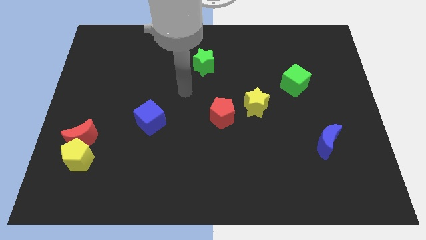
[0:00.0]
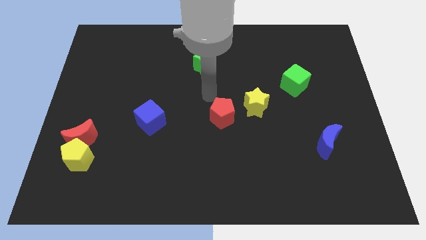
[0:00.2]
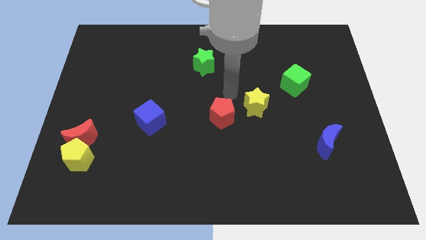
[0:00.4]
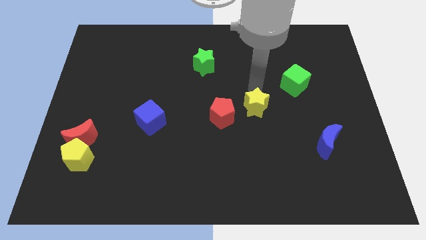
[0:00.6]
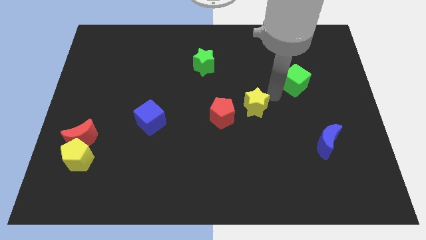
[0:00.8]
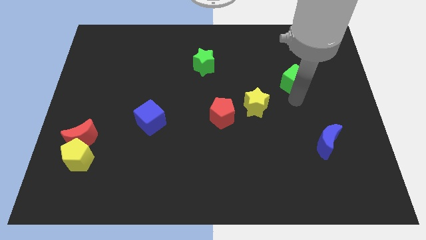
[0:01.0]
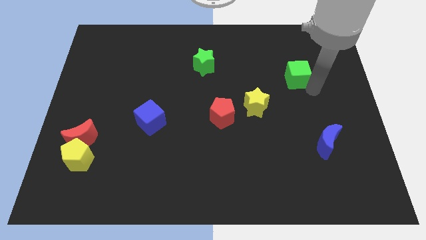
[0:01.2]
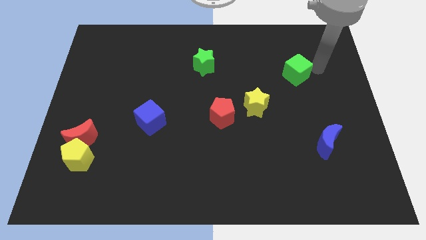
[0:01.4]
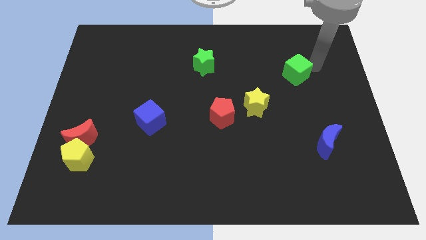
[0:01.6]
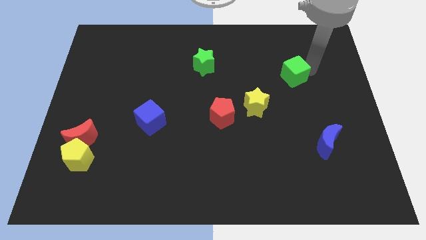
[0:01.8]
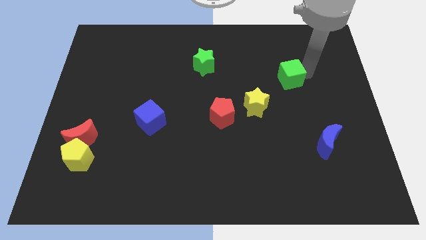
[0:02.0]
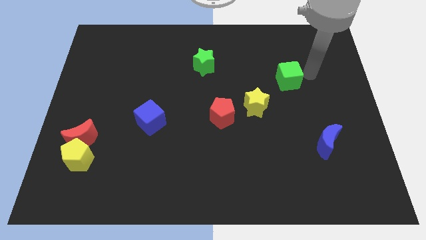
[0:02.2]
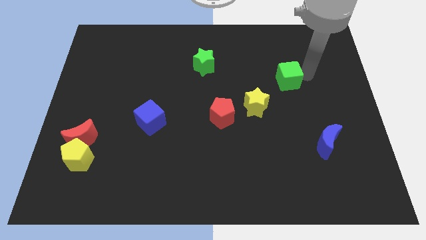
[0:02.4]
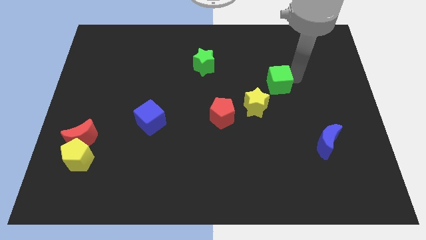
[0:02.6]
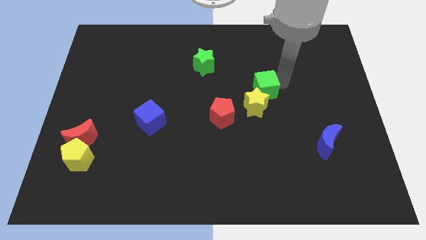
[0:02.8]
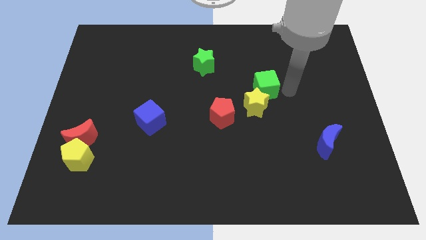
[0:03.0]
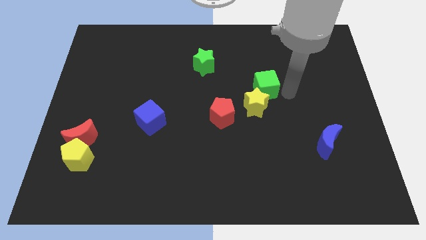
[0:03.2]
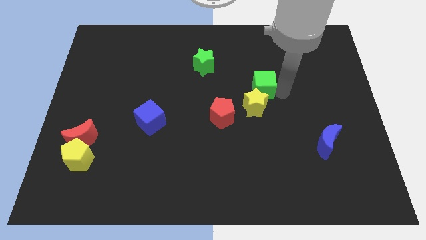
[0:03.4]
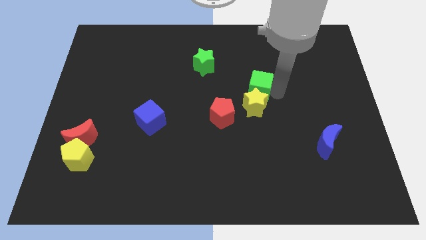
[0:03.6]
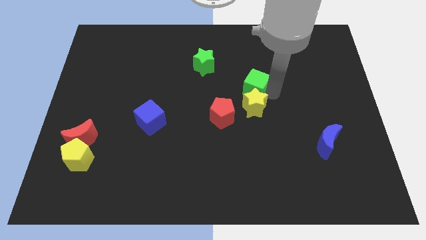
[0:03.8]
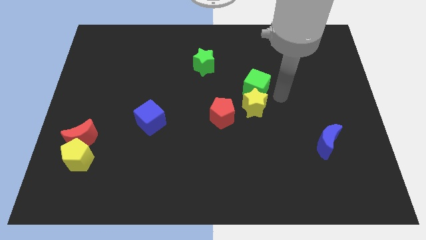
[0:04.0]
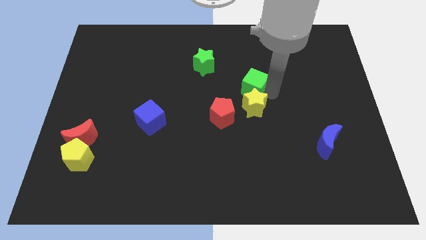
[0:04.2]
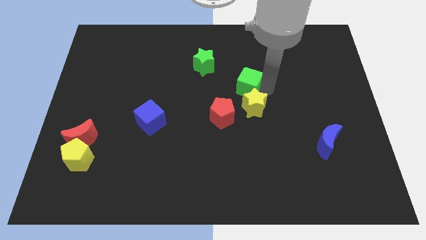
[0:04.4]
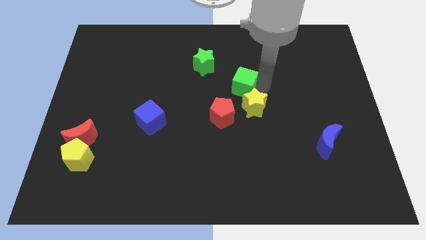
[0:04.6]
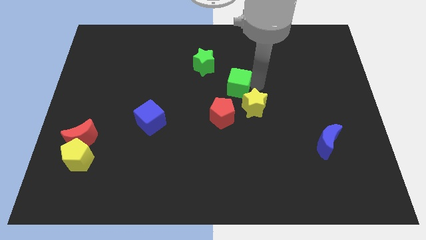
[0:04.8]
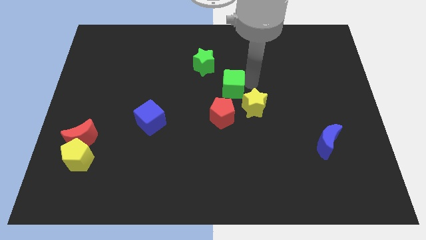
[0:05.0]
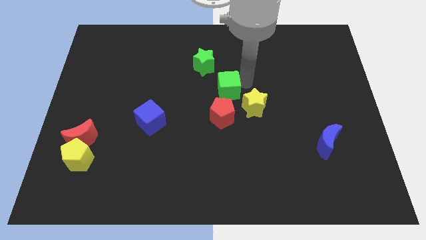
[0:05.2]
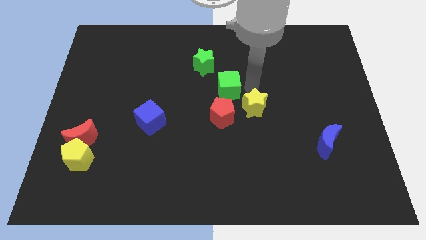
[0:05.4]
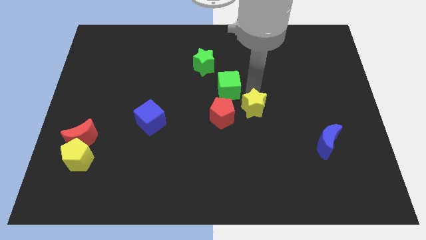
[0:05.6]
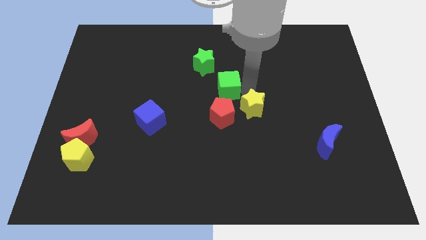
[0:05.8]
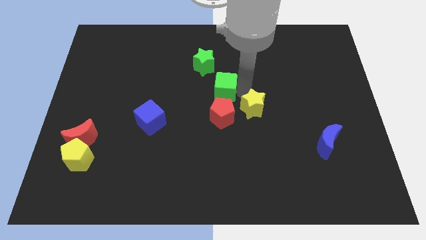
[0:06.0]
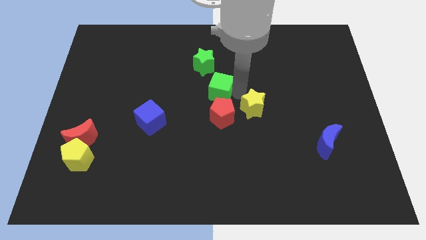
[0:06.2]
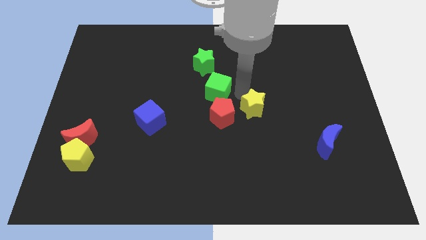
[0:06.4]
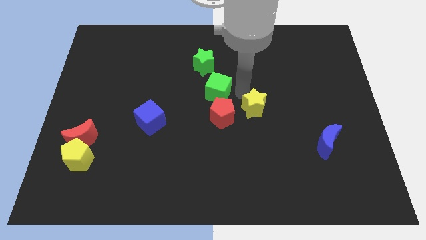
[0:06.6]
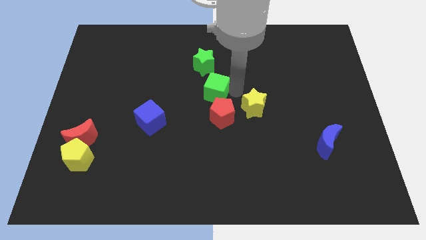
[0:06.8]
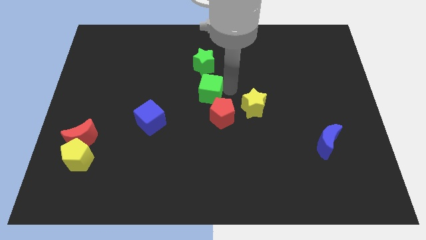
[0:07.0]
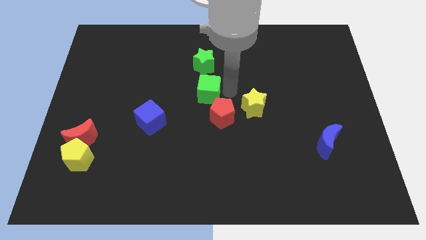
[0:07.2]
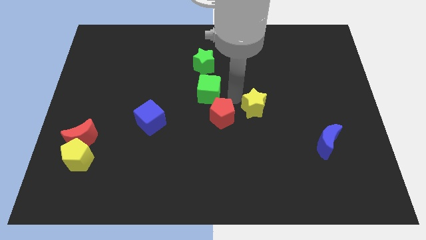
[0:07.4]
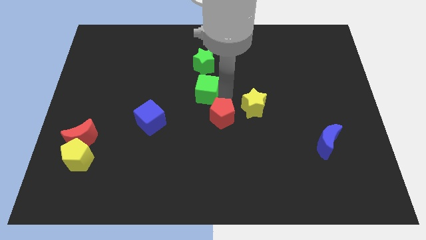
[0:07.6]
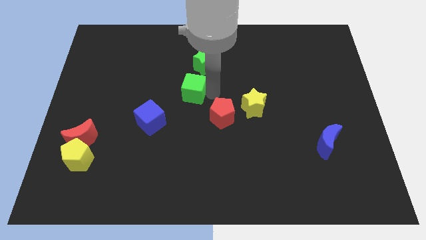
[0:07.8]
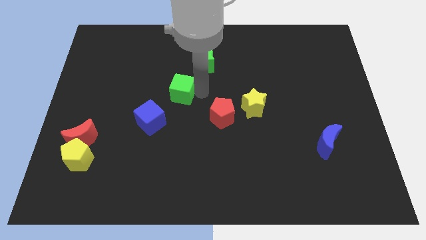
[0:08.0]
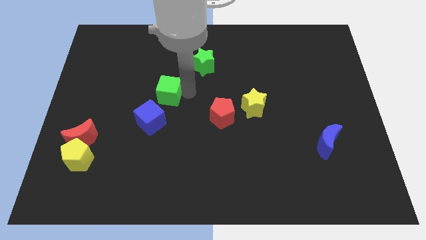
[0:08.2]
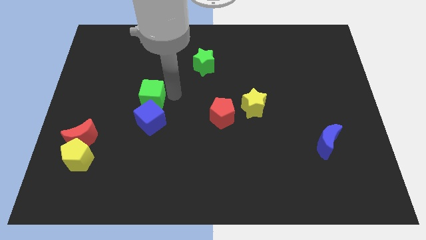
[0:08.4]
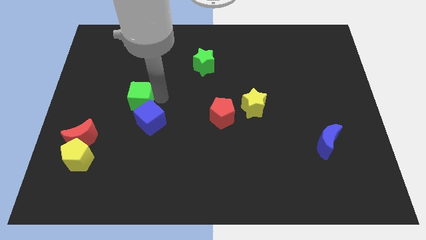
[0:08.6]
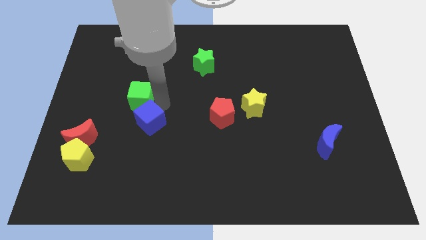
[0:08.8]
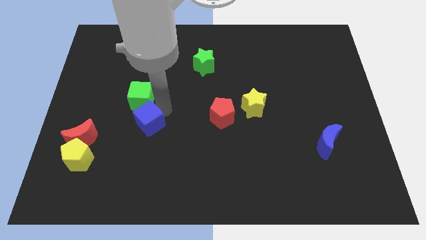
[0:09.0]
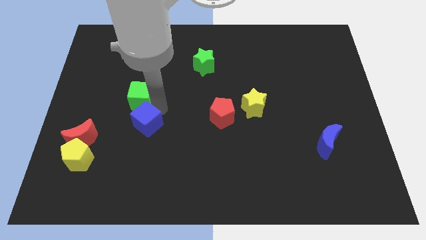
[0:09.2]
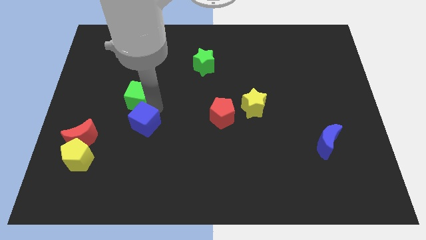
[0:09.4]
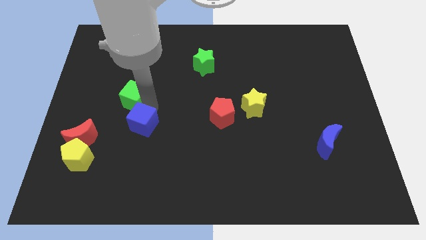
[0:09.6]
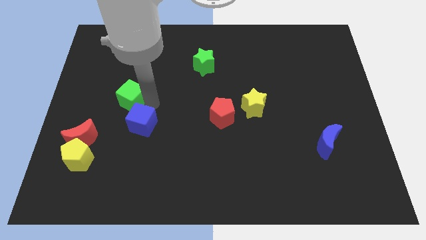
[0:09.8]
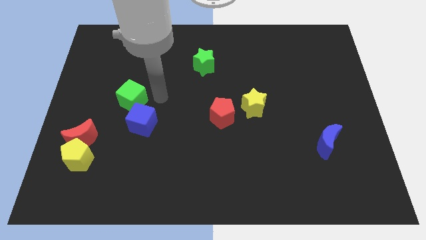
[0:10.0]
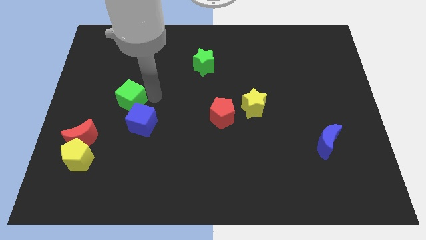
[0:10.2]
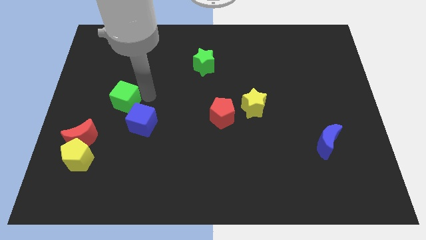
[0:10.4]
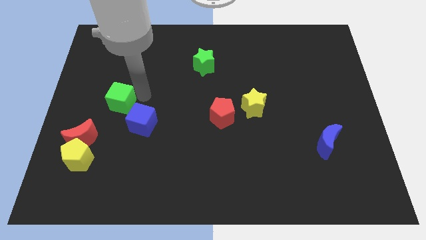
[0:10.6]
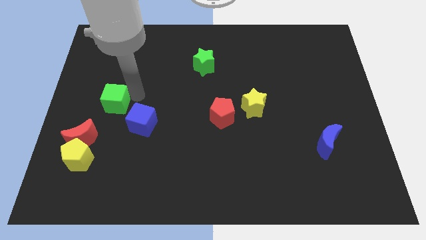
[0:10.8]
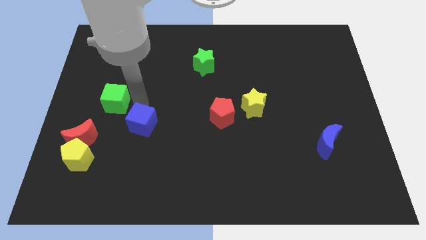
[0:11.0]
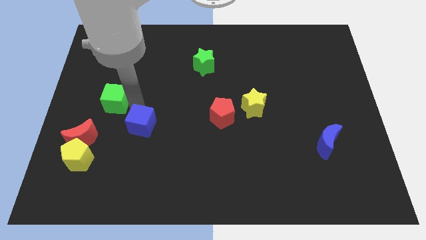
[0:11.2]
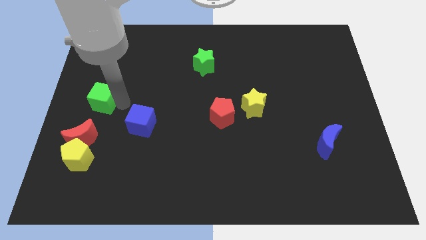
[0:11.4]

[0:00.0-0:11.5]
slide the green cube to the center left

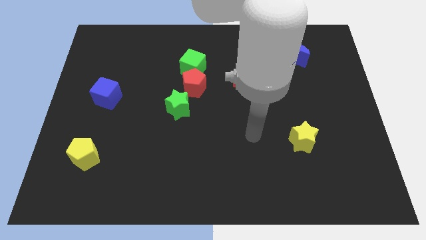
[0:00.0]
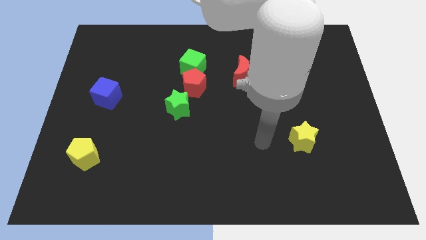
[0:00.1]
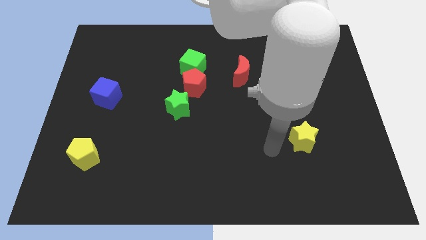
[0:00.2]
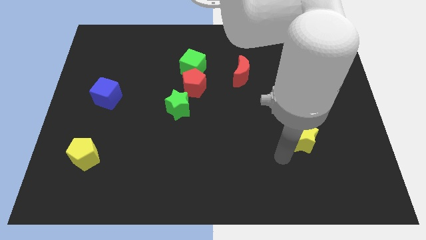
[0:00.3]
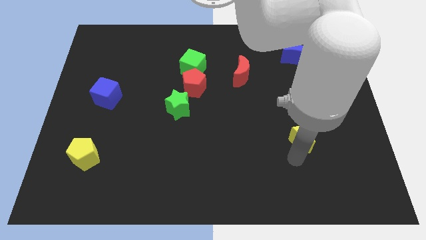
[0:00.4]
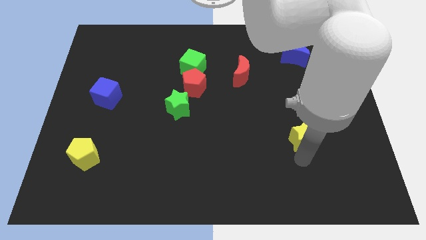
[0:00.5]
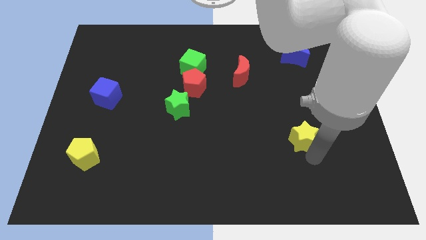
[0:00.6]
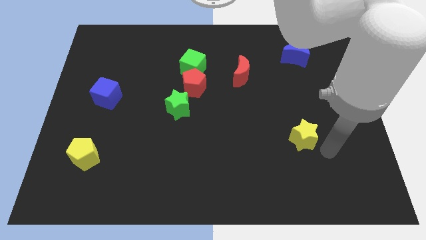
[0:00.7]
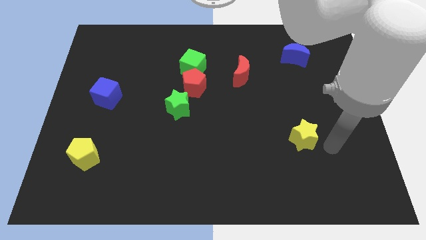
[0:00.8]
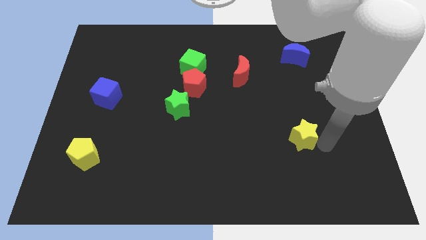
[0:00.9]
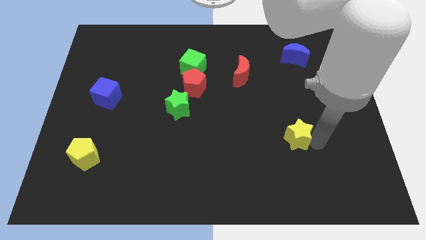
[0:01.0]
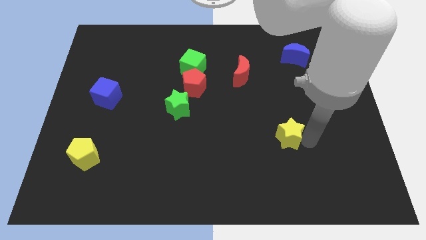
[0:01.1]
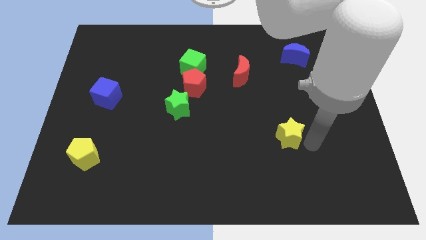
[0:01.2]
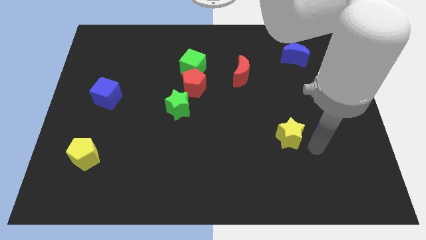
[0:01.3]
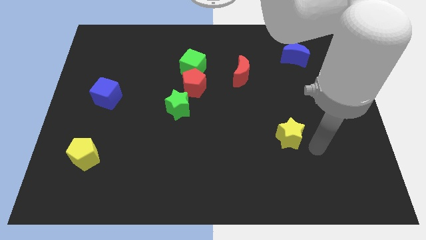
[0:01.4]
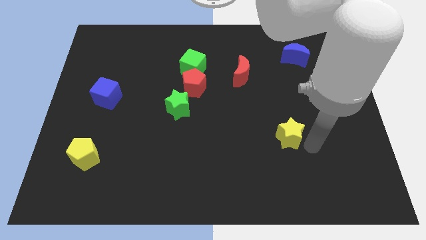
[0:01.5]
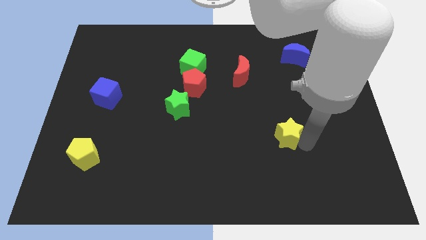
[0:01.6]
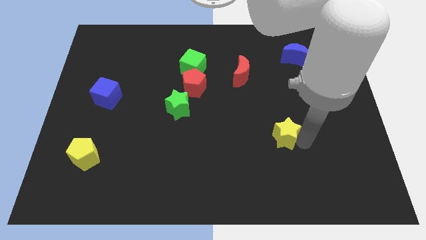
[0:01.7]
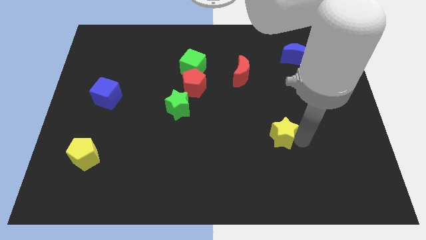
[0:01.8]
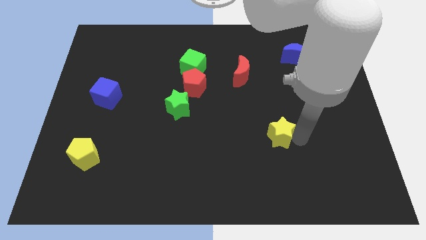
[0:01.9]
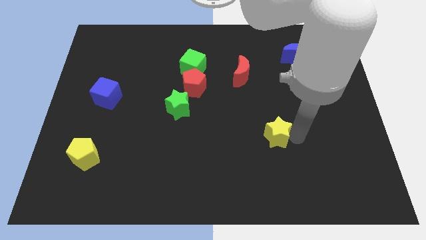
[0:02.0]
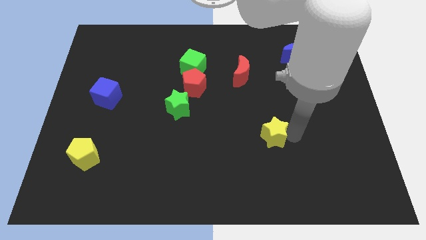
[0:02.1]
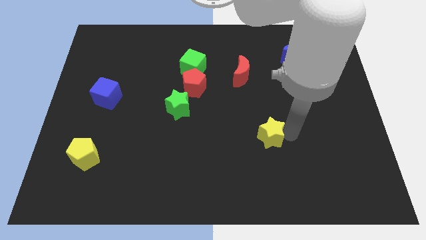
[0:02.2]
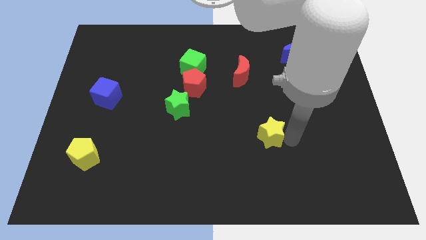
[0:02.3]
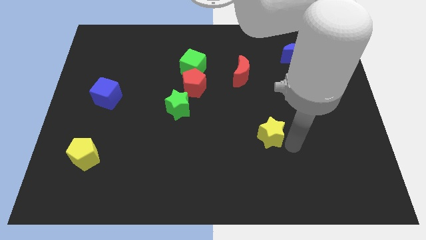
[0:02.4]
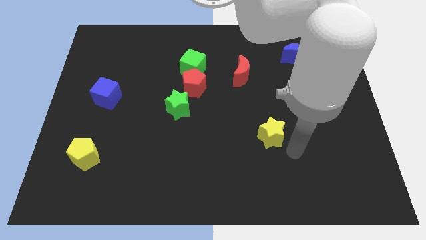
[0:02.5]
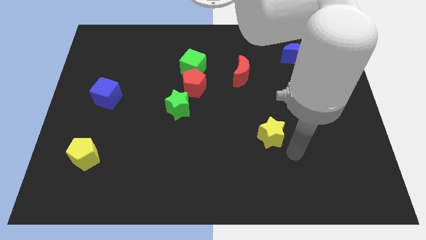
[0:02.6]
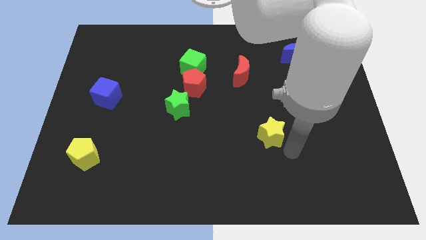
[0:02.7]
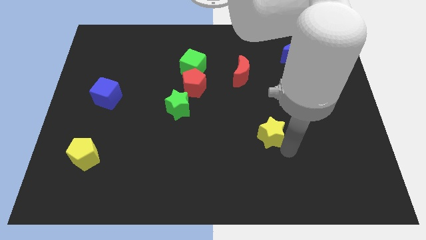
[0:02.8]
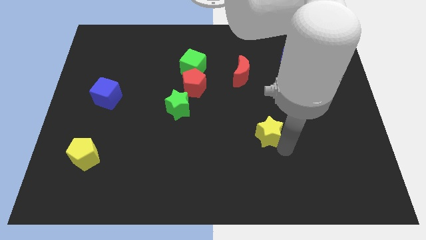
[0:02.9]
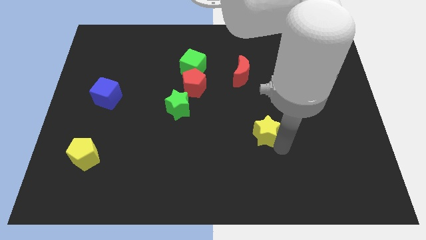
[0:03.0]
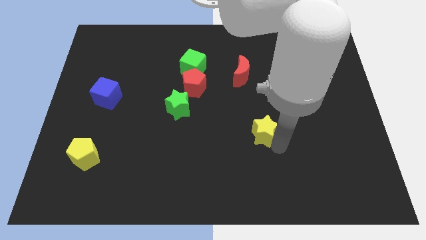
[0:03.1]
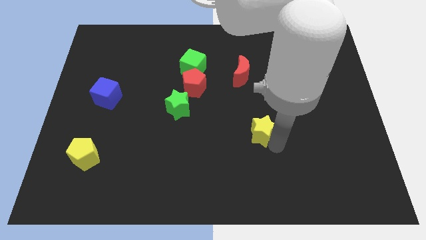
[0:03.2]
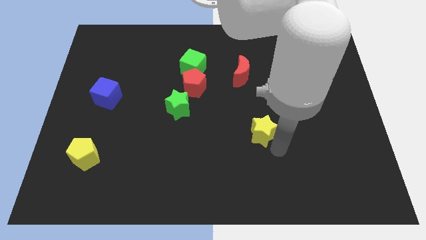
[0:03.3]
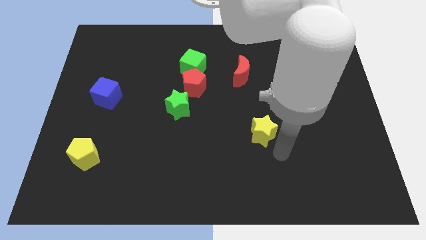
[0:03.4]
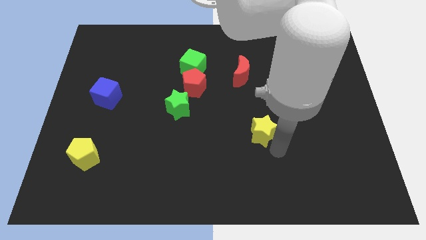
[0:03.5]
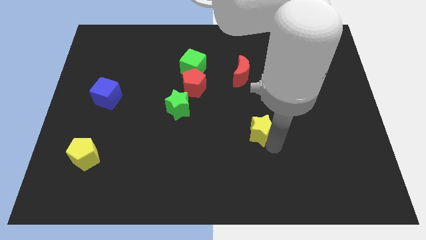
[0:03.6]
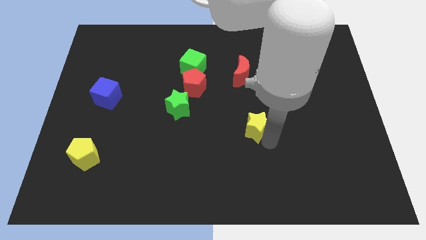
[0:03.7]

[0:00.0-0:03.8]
push the yellow star to the middle
